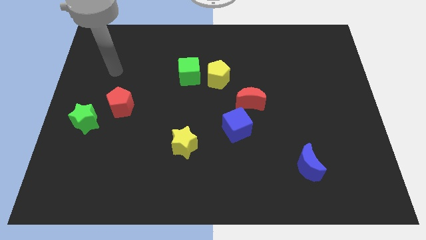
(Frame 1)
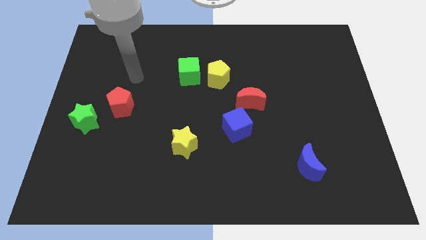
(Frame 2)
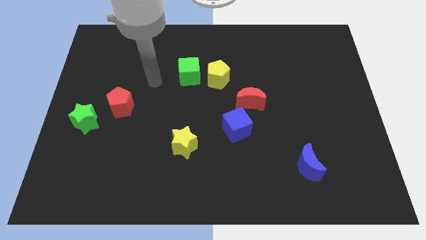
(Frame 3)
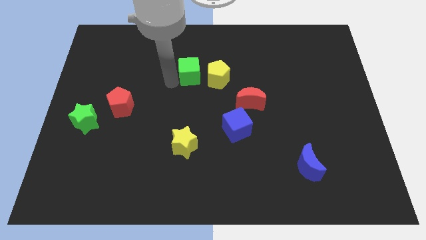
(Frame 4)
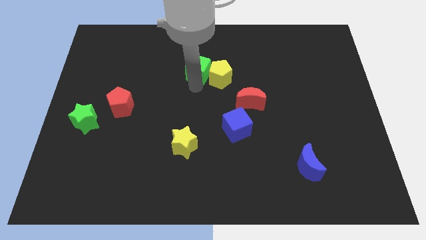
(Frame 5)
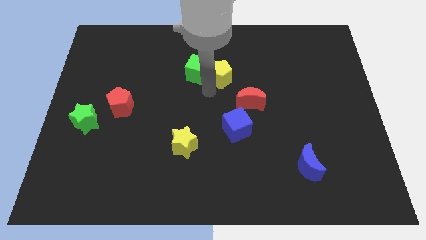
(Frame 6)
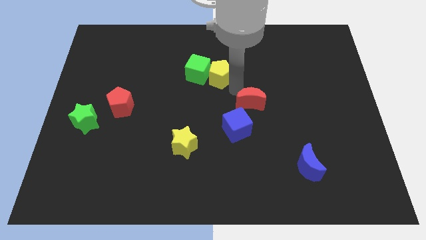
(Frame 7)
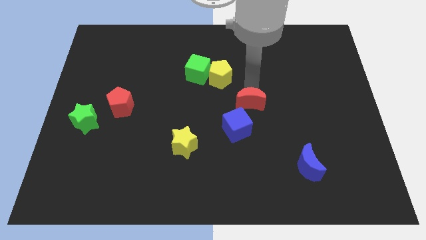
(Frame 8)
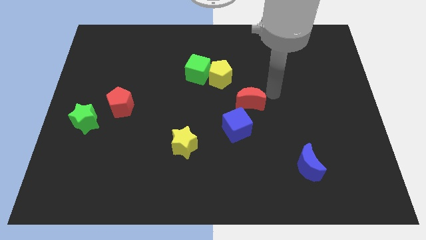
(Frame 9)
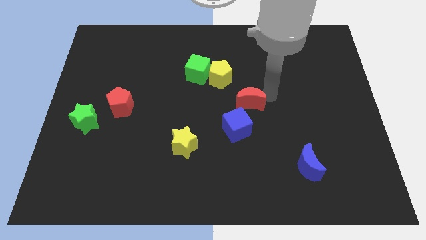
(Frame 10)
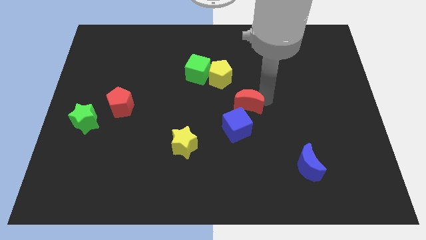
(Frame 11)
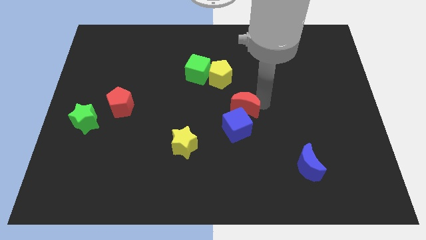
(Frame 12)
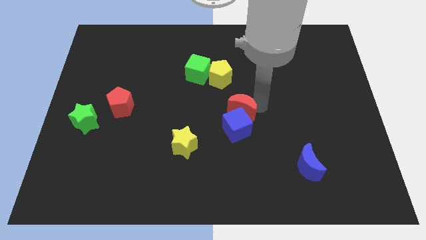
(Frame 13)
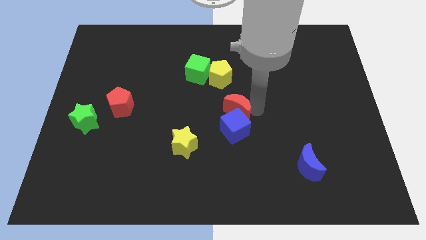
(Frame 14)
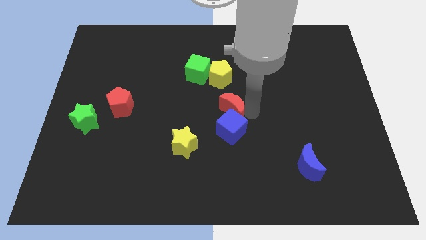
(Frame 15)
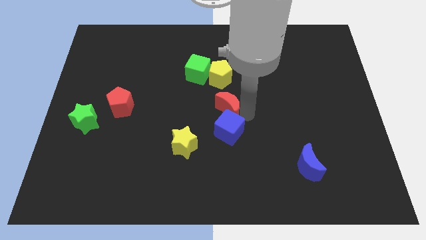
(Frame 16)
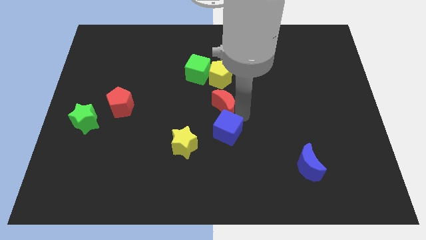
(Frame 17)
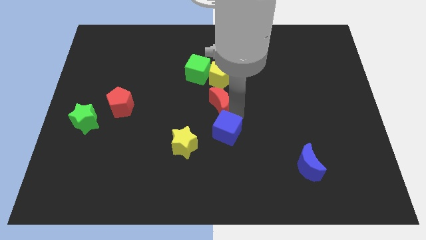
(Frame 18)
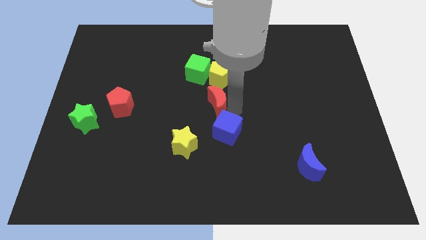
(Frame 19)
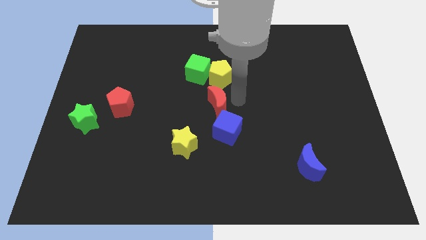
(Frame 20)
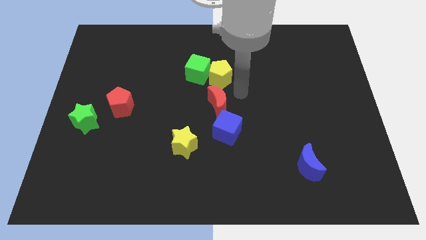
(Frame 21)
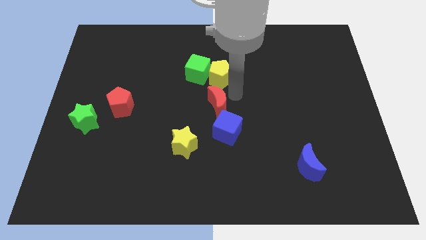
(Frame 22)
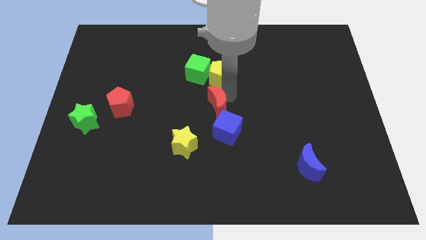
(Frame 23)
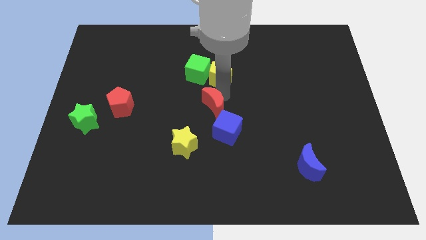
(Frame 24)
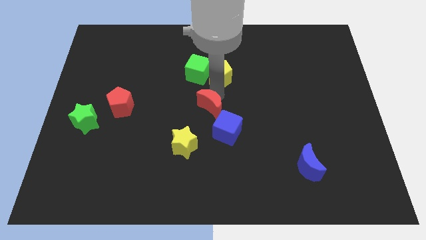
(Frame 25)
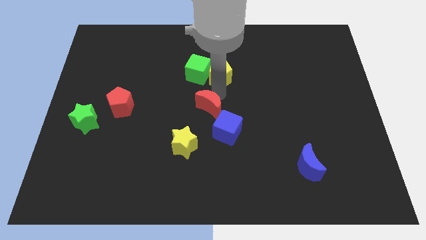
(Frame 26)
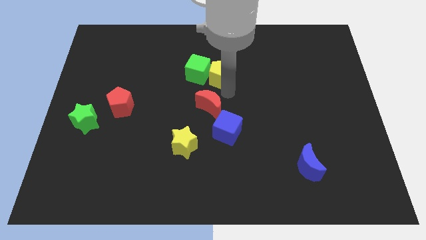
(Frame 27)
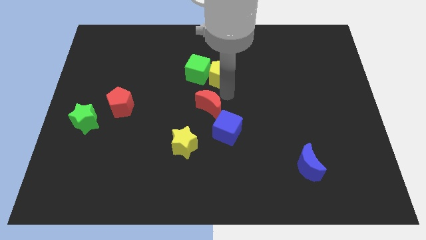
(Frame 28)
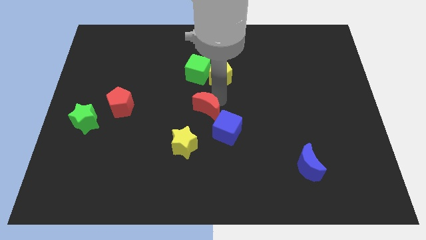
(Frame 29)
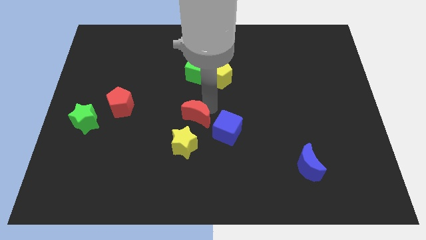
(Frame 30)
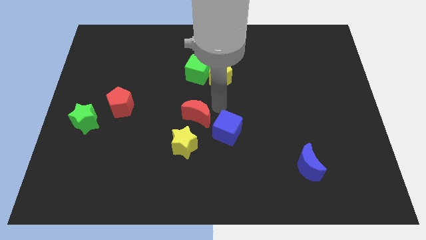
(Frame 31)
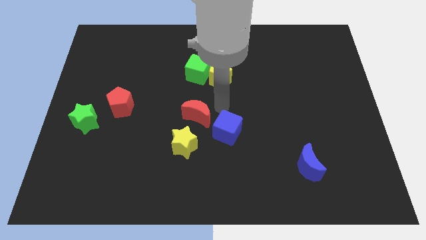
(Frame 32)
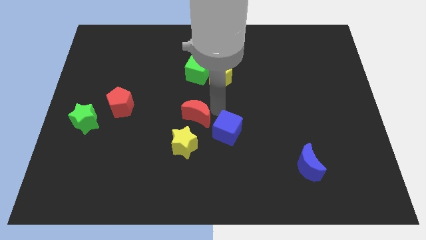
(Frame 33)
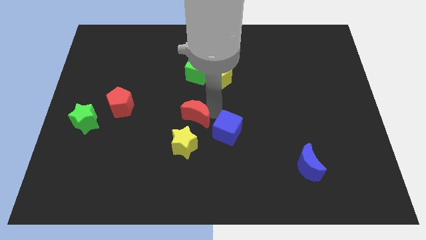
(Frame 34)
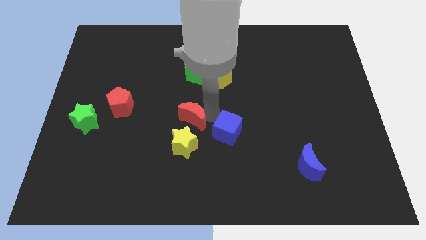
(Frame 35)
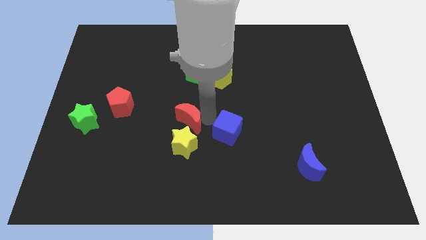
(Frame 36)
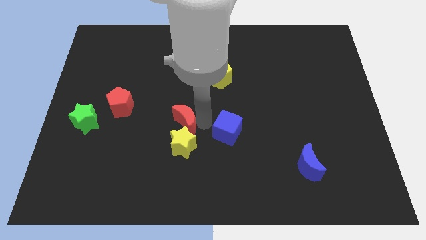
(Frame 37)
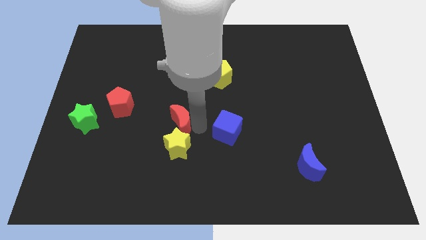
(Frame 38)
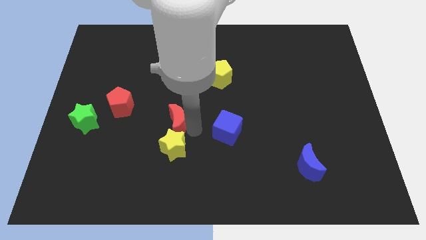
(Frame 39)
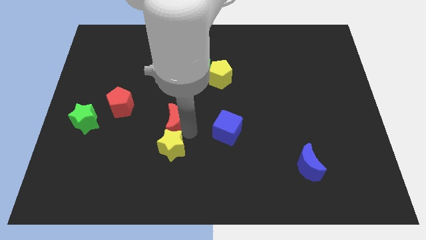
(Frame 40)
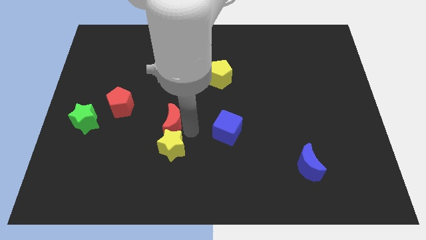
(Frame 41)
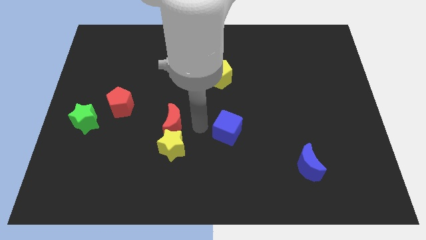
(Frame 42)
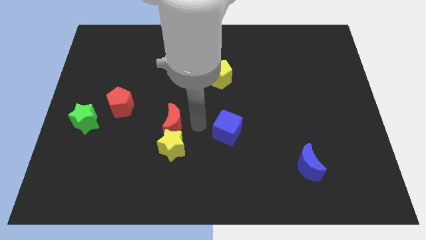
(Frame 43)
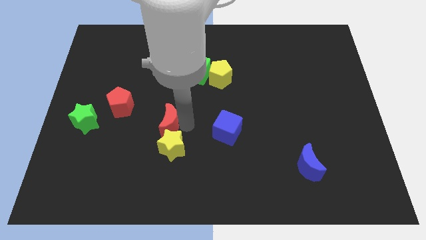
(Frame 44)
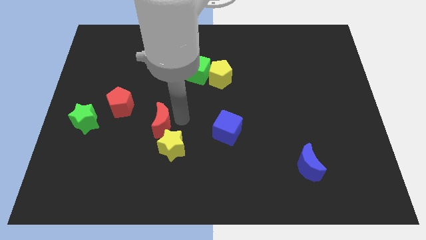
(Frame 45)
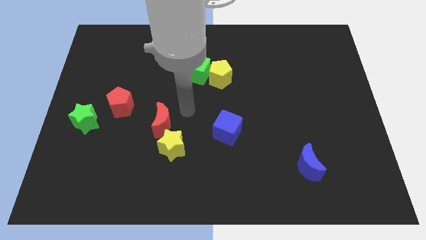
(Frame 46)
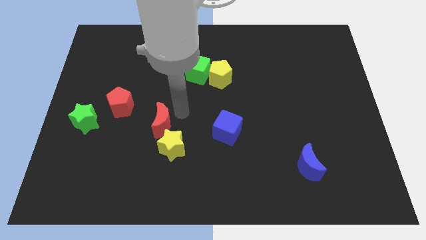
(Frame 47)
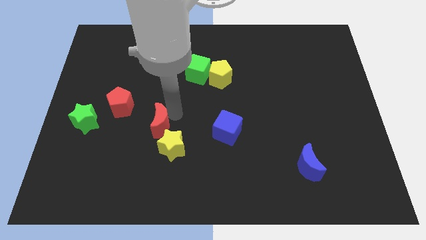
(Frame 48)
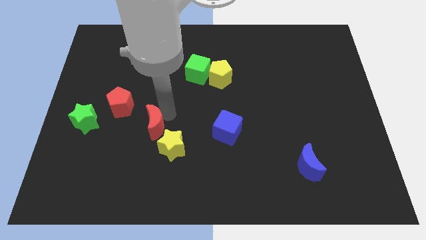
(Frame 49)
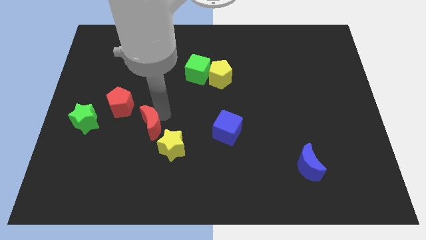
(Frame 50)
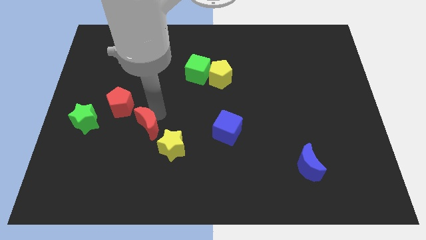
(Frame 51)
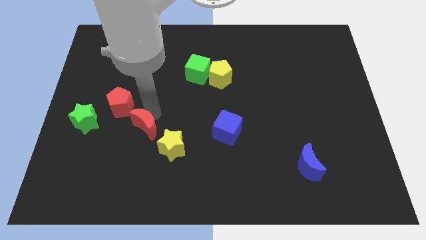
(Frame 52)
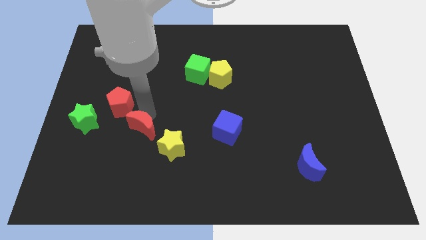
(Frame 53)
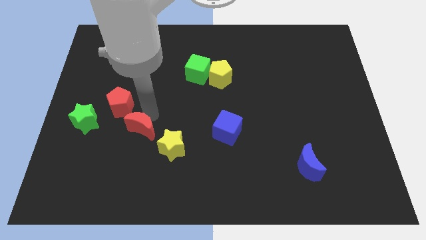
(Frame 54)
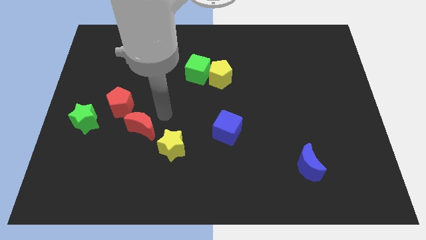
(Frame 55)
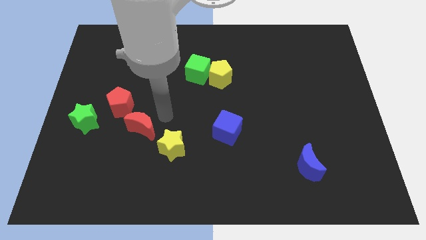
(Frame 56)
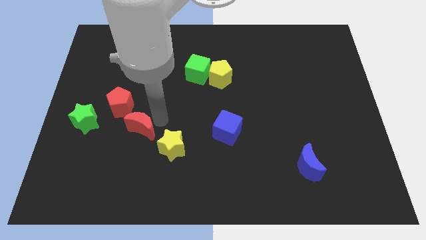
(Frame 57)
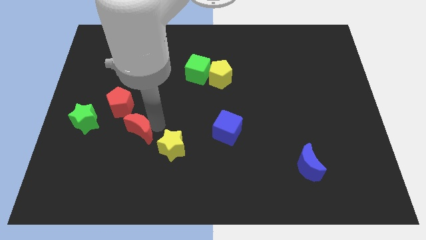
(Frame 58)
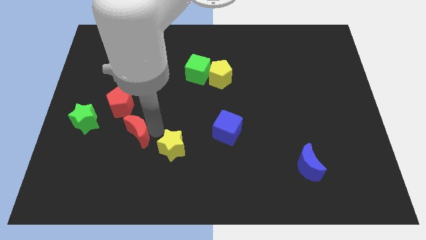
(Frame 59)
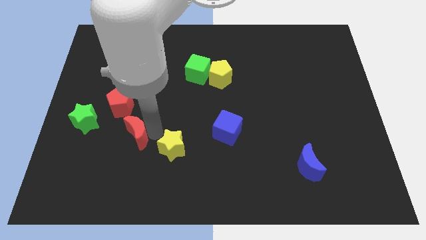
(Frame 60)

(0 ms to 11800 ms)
push the red moon to the bottom of the red pentagon

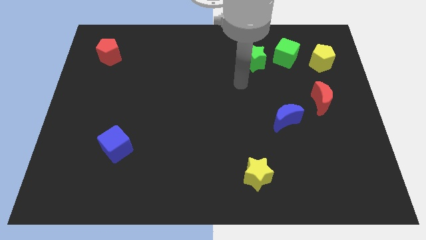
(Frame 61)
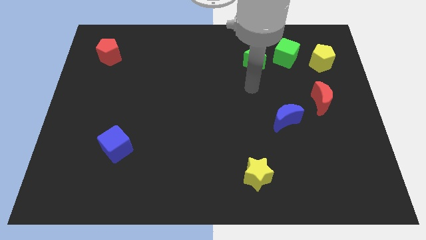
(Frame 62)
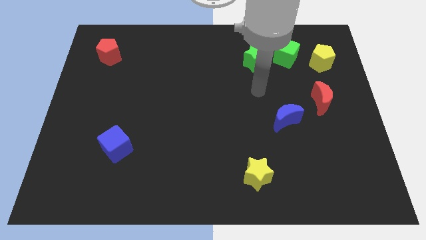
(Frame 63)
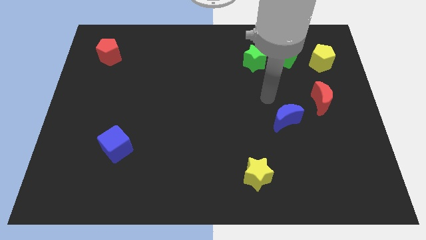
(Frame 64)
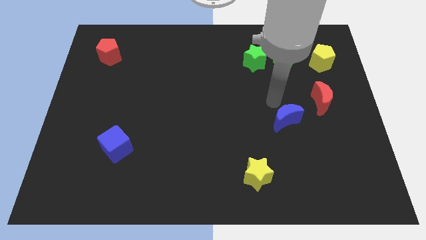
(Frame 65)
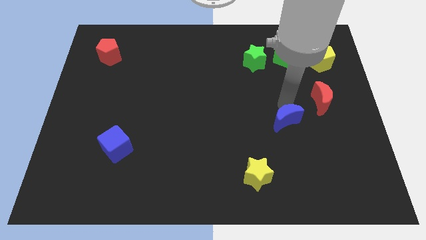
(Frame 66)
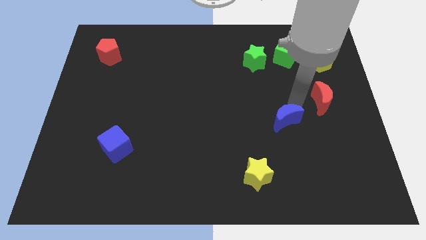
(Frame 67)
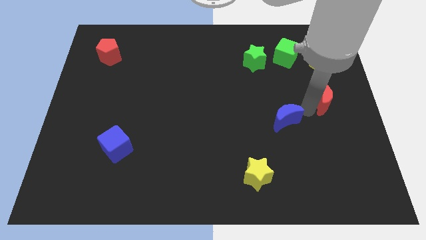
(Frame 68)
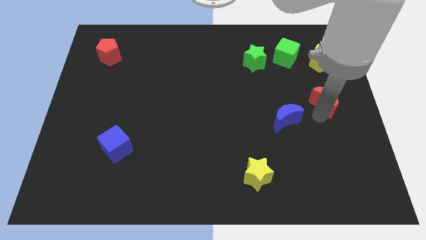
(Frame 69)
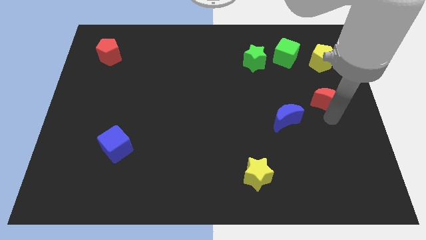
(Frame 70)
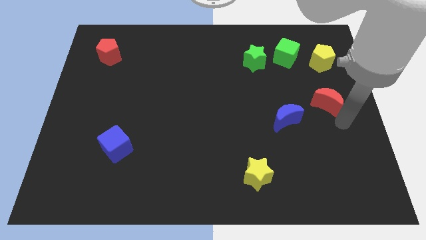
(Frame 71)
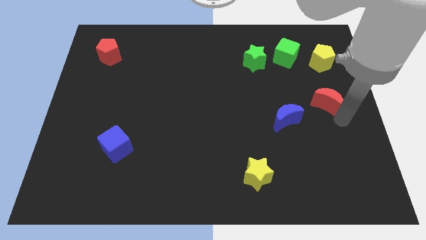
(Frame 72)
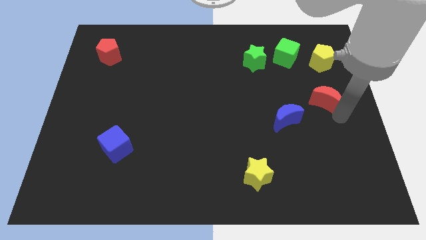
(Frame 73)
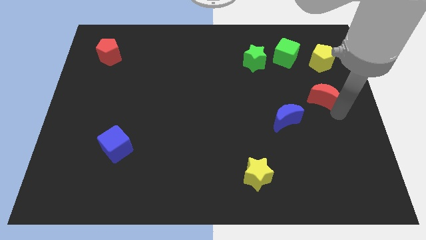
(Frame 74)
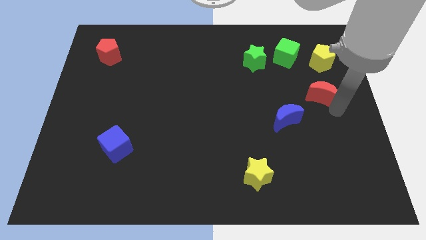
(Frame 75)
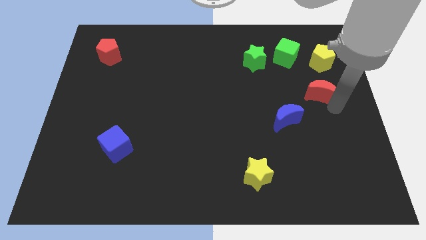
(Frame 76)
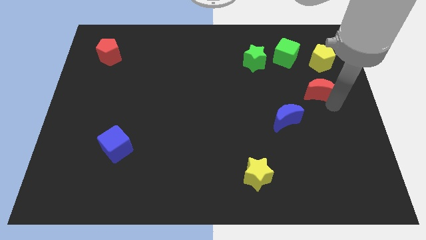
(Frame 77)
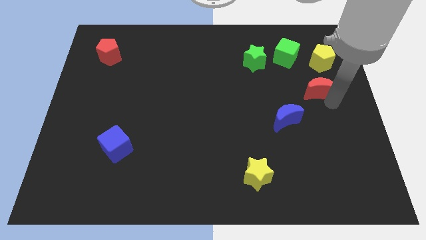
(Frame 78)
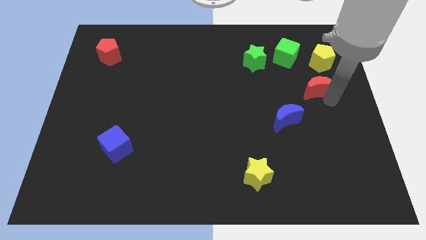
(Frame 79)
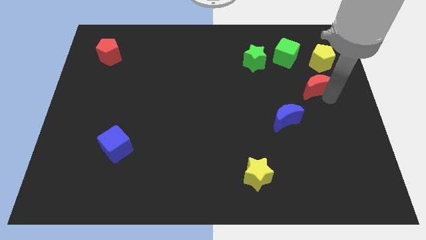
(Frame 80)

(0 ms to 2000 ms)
put the red moon to the bottom left side of the yellow pentagon

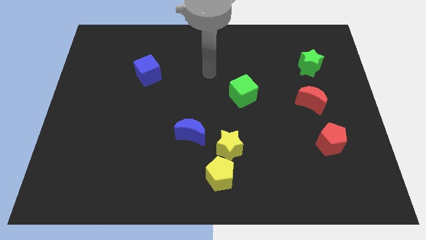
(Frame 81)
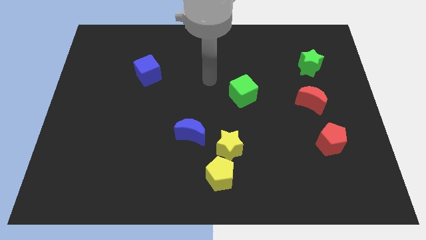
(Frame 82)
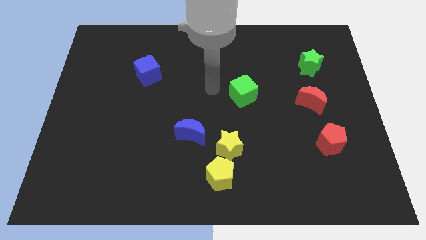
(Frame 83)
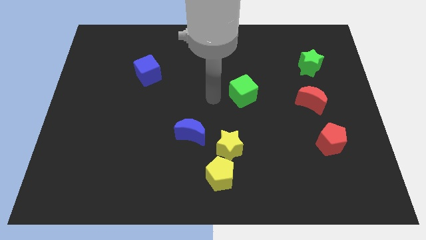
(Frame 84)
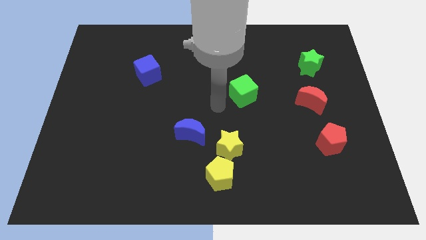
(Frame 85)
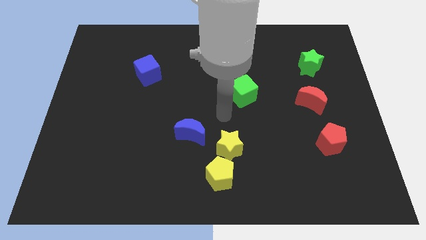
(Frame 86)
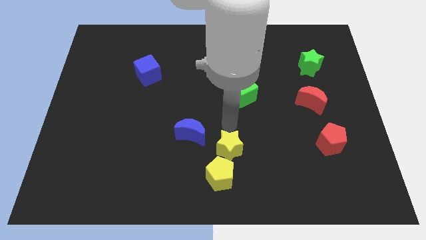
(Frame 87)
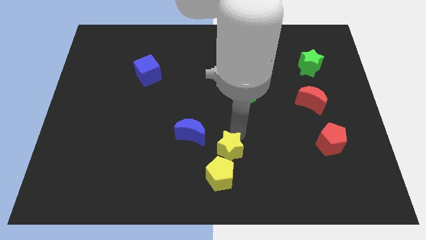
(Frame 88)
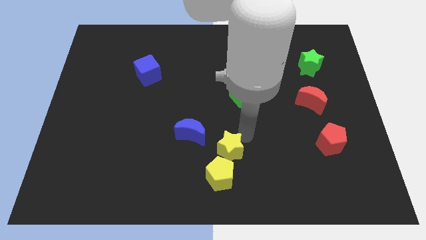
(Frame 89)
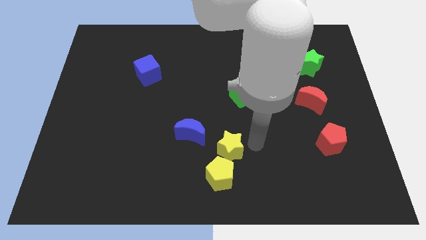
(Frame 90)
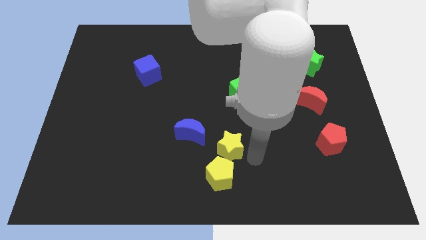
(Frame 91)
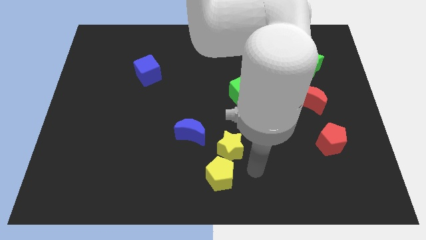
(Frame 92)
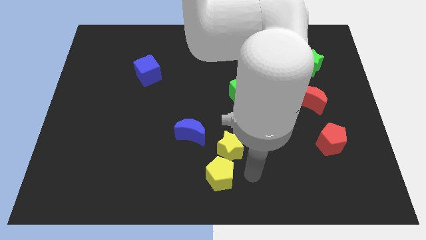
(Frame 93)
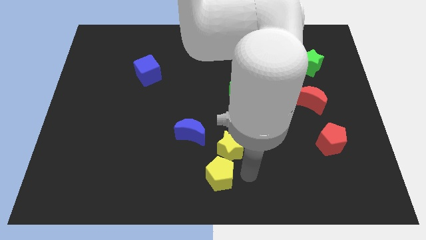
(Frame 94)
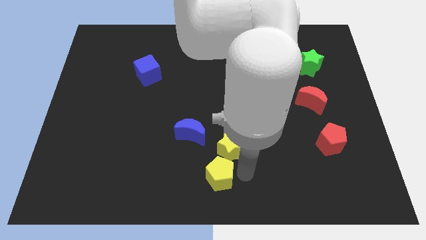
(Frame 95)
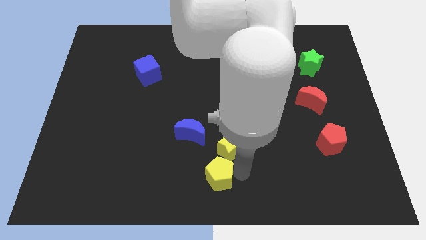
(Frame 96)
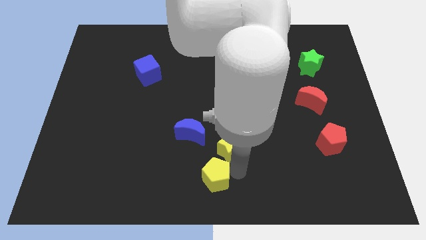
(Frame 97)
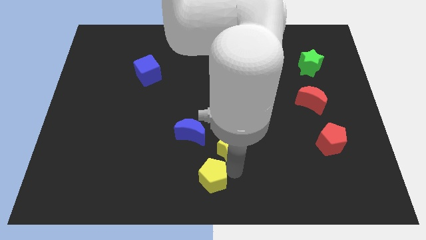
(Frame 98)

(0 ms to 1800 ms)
put the yellow pentagon to the bottom side of the blue moon
